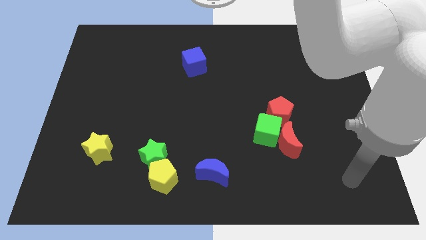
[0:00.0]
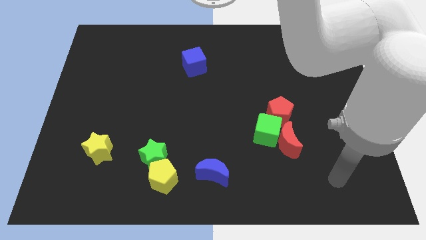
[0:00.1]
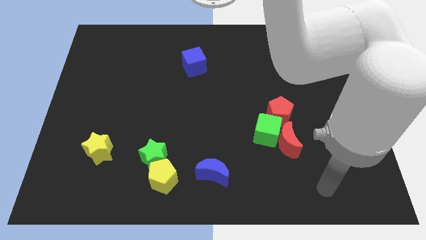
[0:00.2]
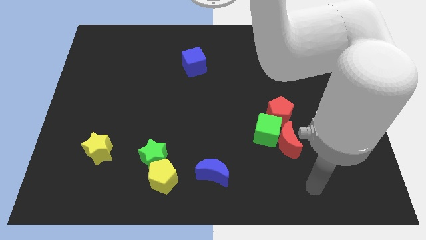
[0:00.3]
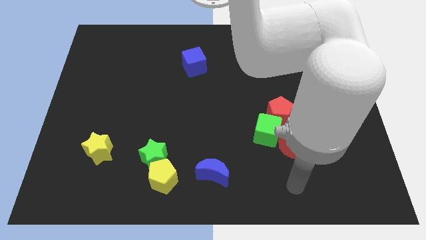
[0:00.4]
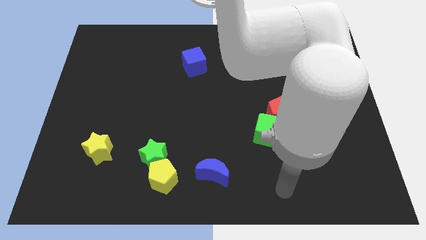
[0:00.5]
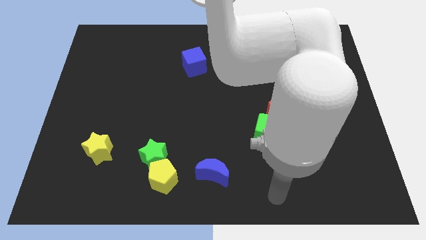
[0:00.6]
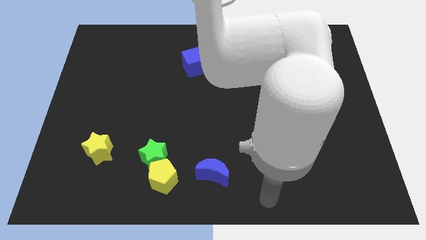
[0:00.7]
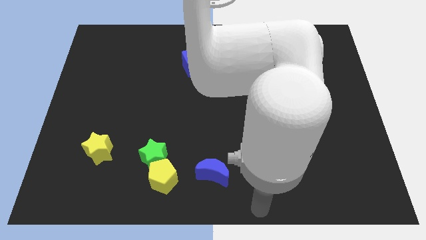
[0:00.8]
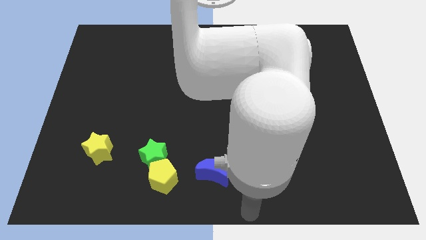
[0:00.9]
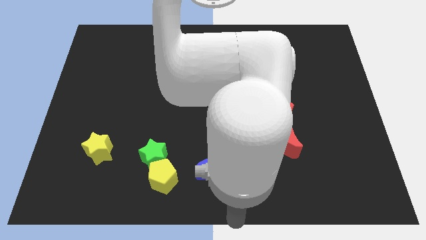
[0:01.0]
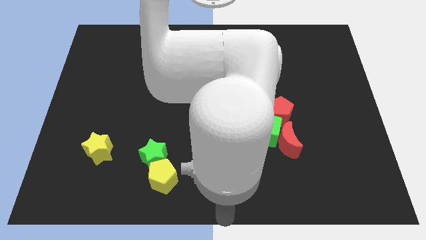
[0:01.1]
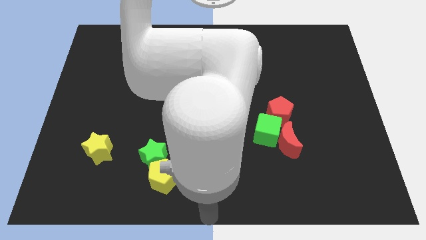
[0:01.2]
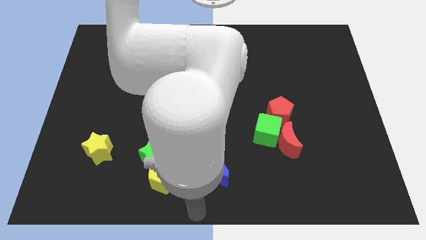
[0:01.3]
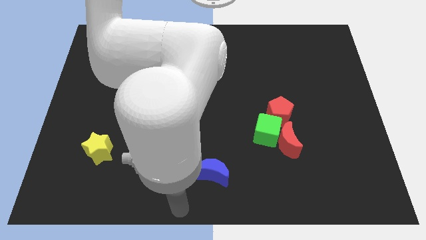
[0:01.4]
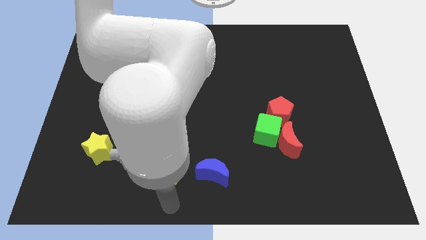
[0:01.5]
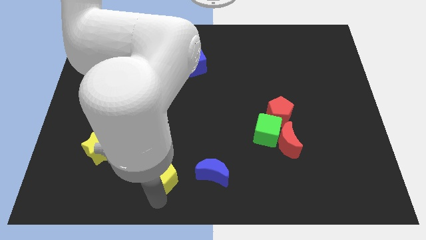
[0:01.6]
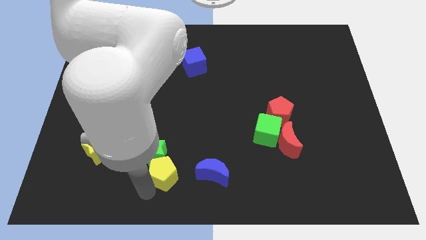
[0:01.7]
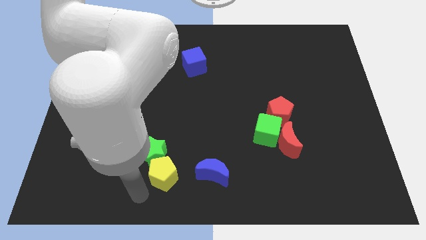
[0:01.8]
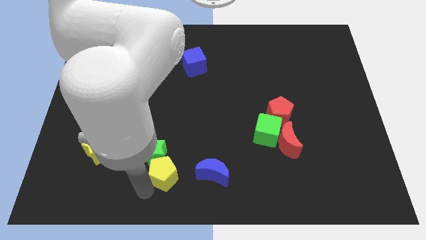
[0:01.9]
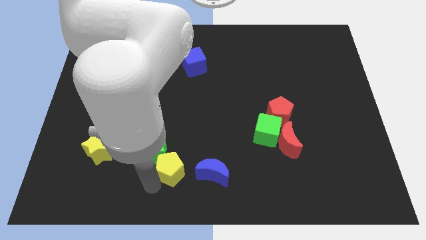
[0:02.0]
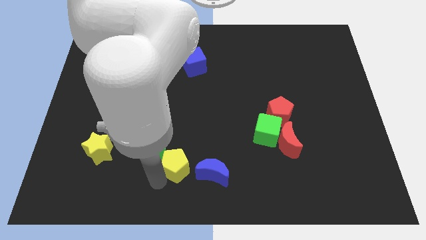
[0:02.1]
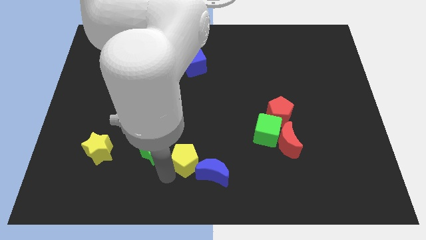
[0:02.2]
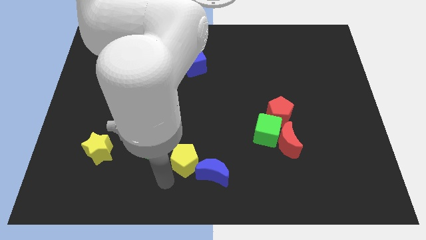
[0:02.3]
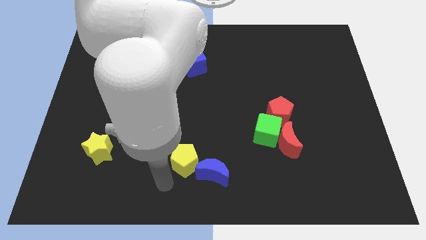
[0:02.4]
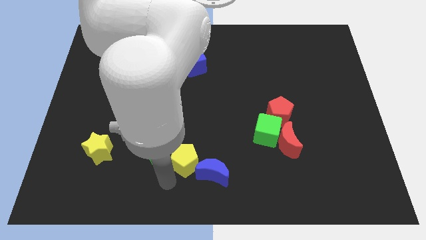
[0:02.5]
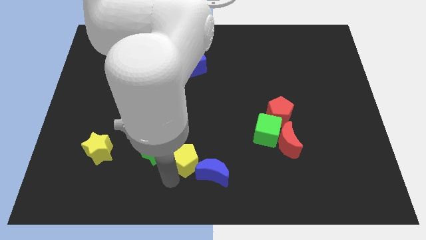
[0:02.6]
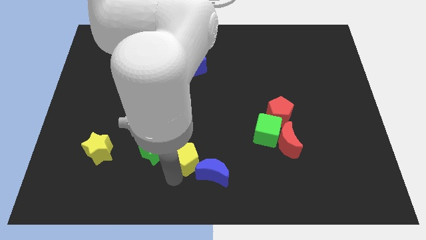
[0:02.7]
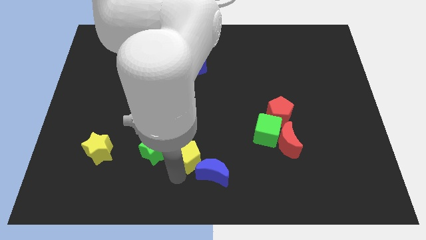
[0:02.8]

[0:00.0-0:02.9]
slide the yellow pentagon diagonally up and to the right a little bit

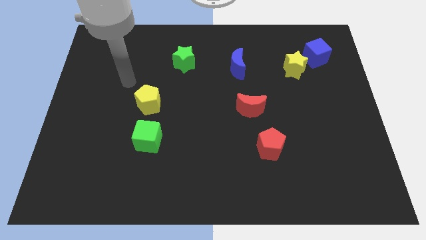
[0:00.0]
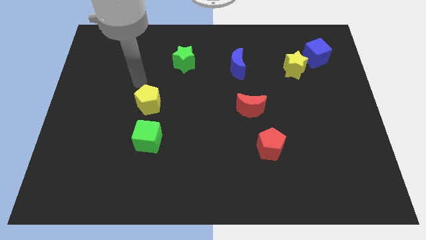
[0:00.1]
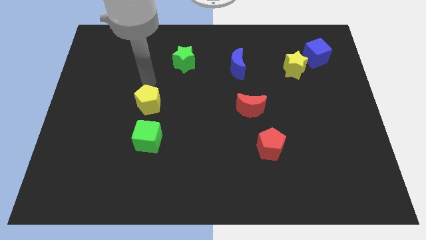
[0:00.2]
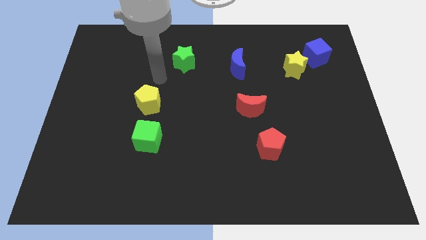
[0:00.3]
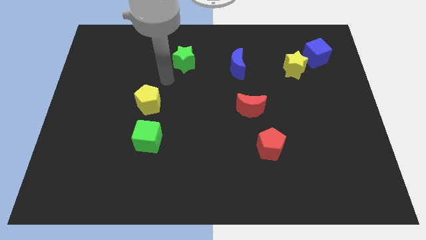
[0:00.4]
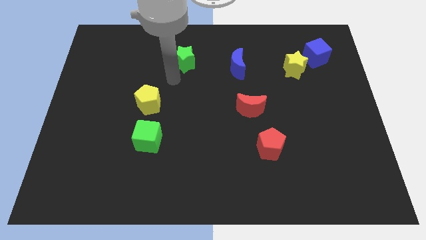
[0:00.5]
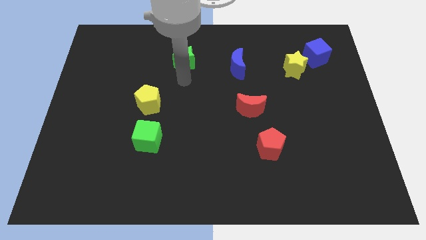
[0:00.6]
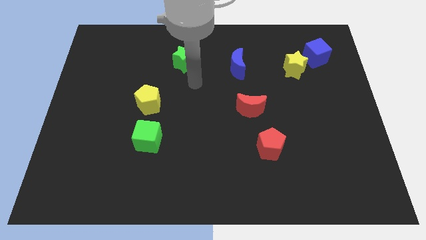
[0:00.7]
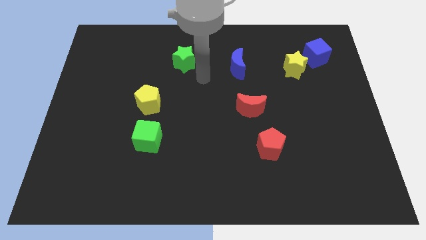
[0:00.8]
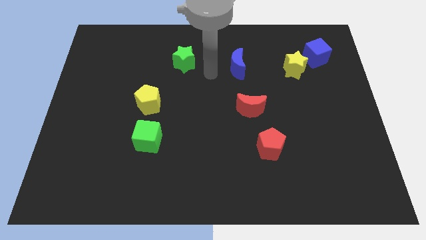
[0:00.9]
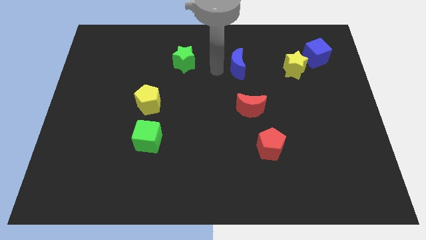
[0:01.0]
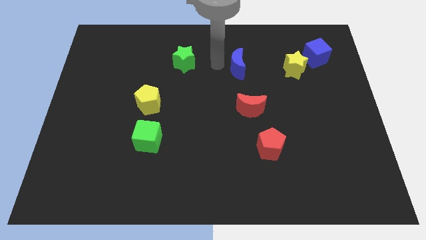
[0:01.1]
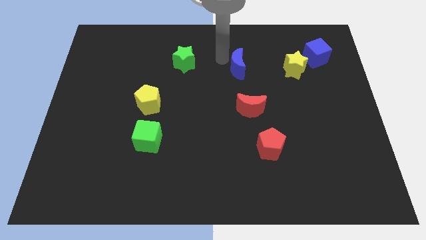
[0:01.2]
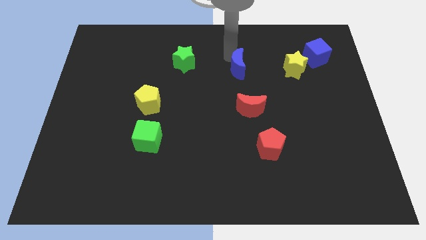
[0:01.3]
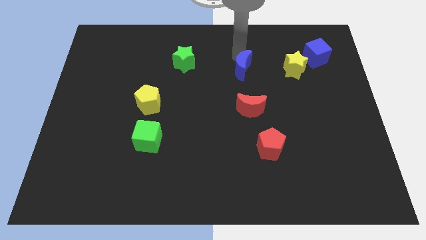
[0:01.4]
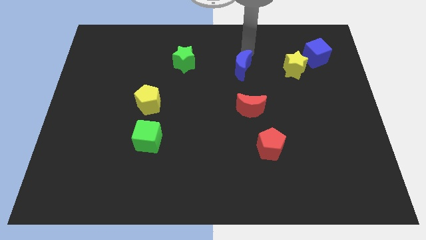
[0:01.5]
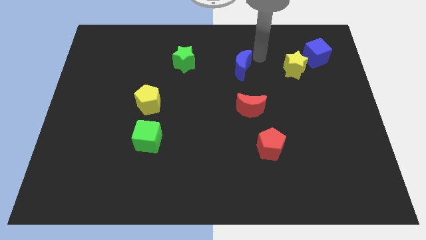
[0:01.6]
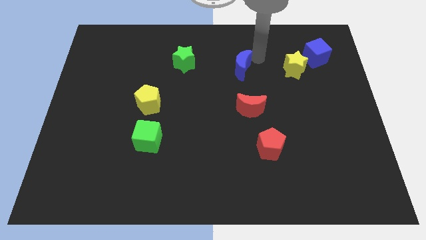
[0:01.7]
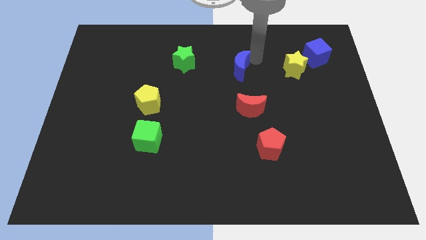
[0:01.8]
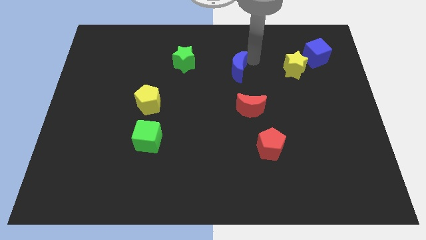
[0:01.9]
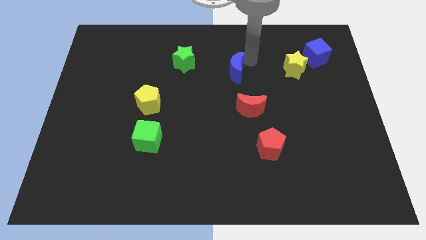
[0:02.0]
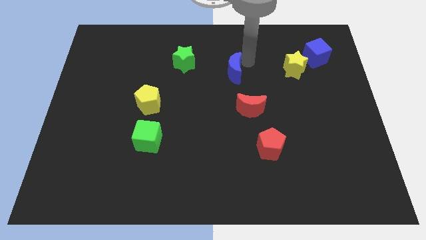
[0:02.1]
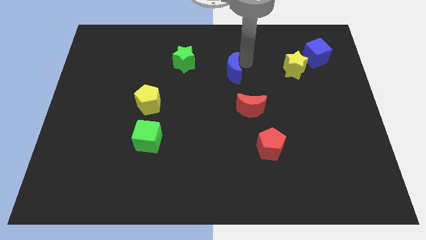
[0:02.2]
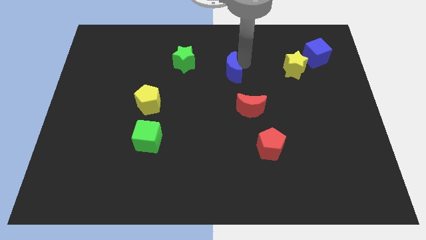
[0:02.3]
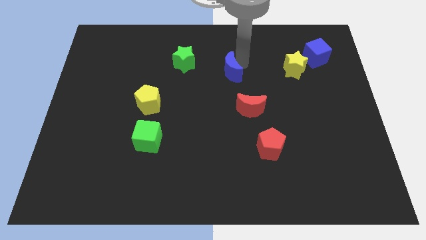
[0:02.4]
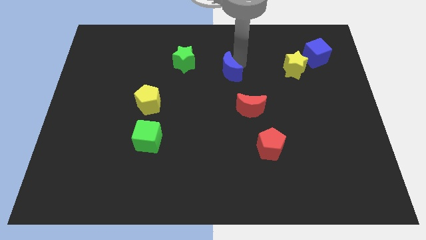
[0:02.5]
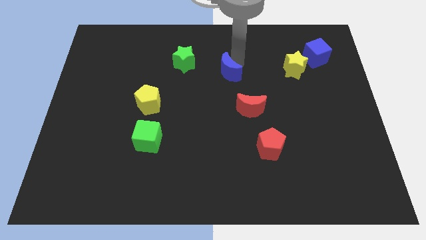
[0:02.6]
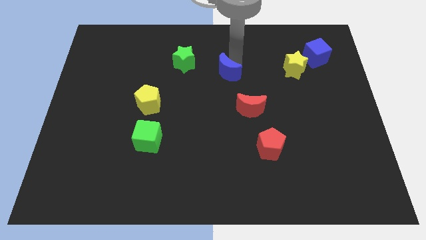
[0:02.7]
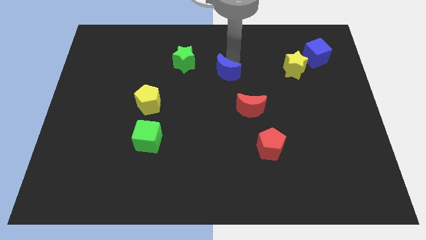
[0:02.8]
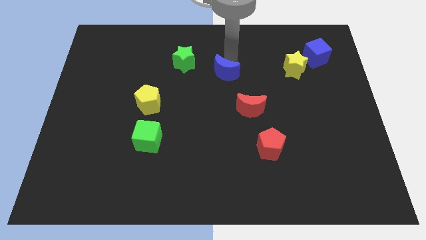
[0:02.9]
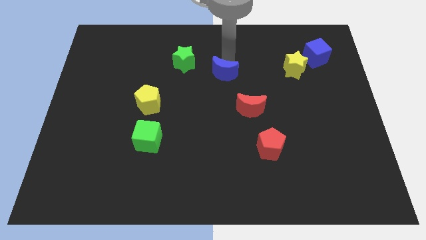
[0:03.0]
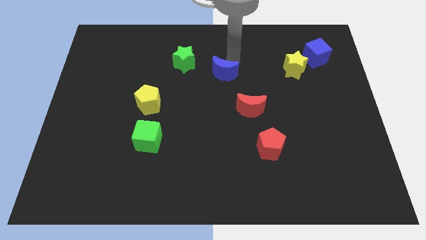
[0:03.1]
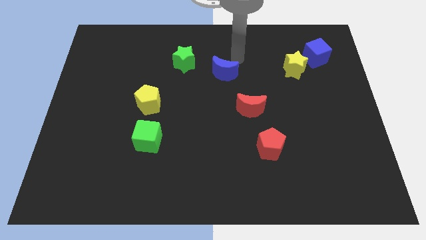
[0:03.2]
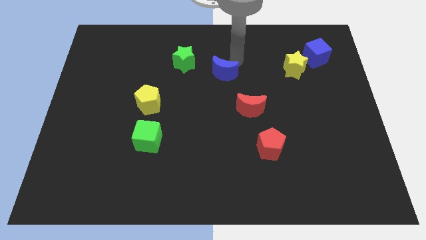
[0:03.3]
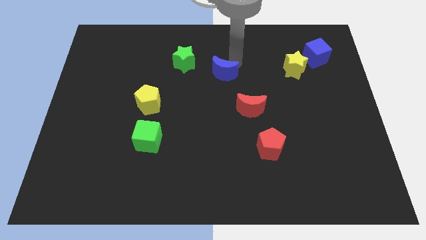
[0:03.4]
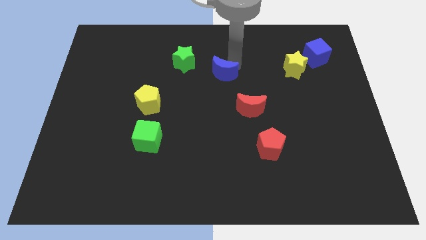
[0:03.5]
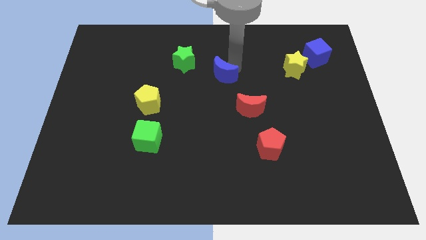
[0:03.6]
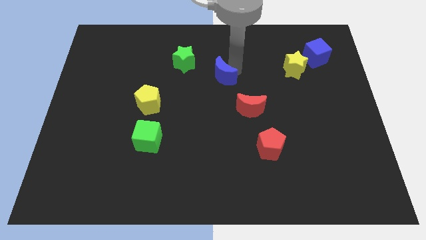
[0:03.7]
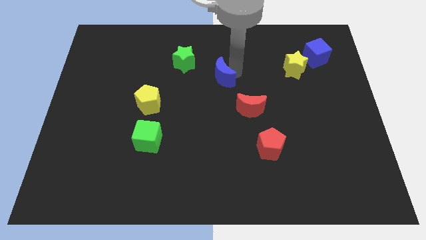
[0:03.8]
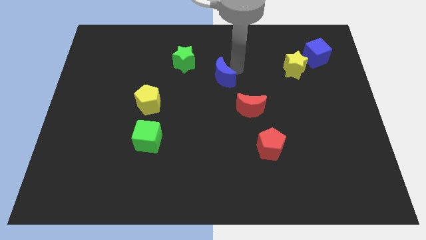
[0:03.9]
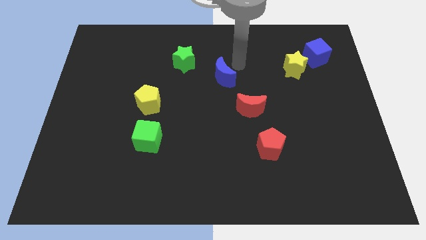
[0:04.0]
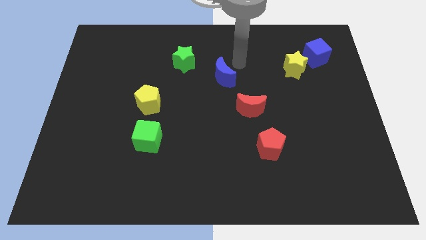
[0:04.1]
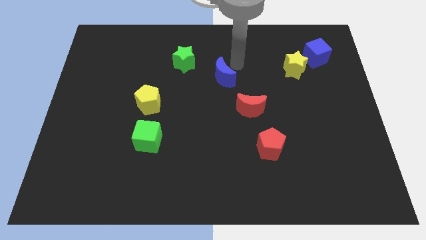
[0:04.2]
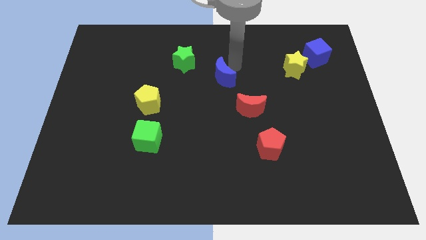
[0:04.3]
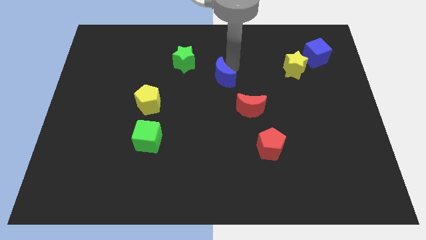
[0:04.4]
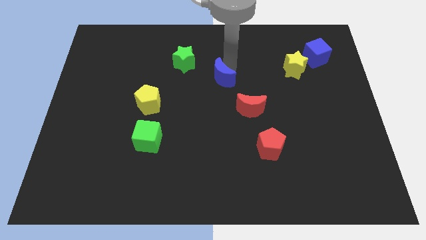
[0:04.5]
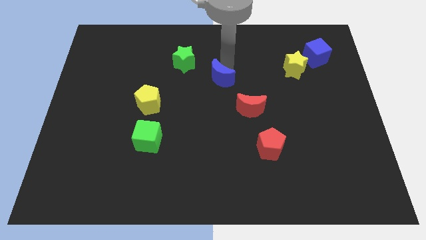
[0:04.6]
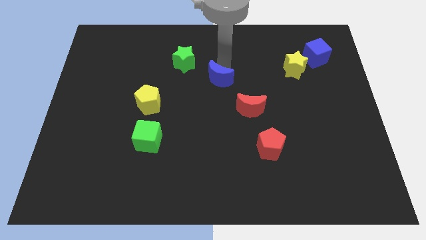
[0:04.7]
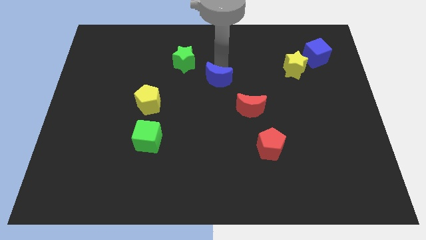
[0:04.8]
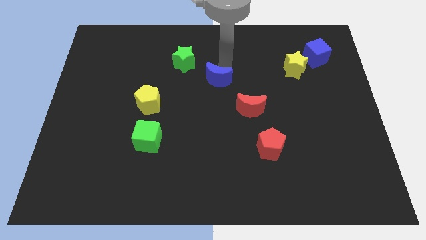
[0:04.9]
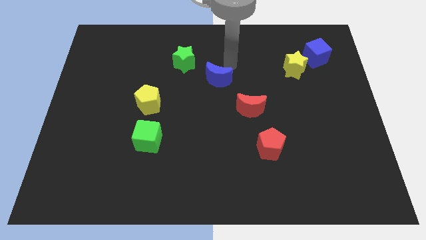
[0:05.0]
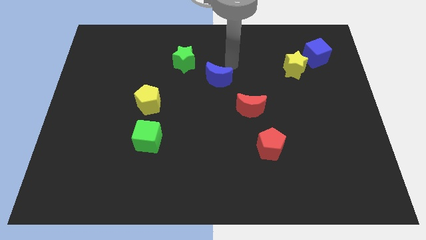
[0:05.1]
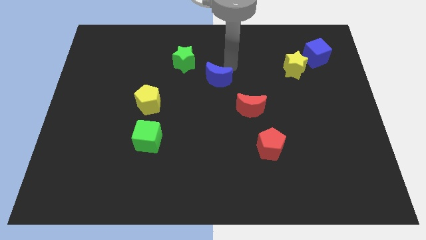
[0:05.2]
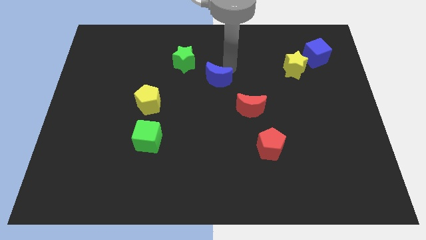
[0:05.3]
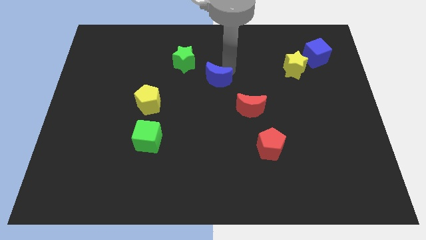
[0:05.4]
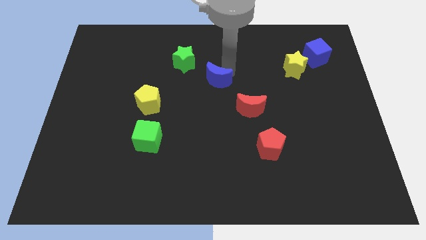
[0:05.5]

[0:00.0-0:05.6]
push the blue moon a little downwards and to the left
